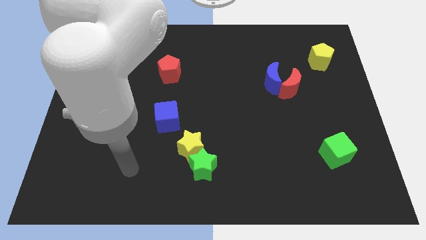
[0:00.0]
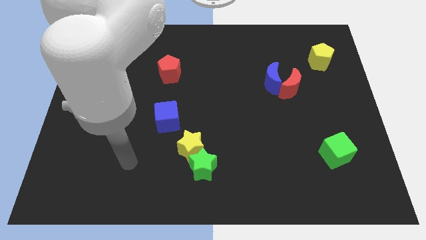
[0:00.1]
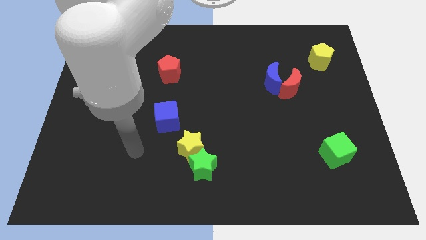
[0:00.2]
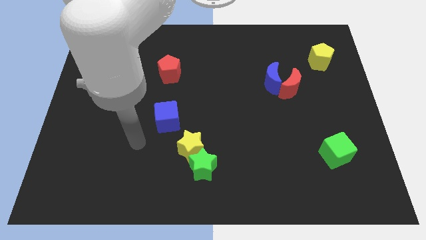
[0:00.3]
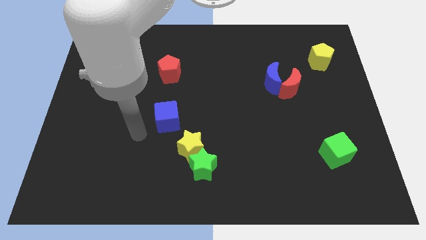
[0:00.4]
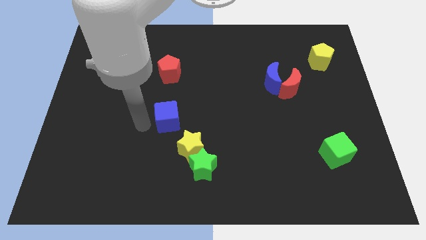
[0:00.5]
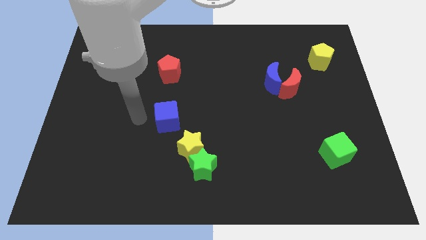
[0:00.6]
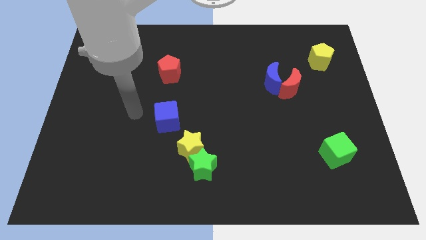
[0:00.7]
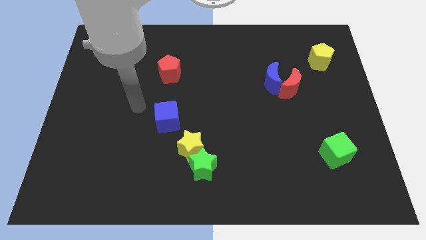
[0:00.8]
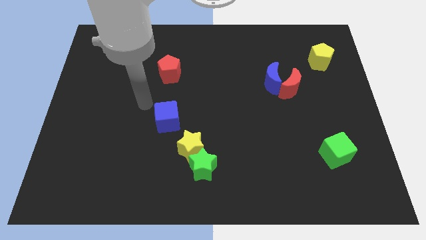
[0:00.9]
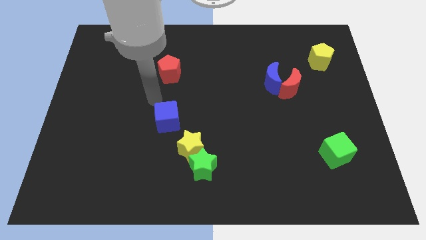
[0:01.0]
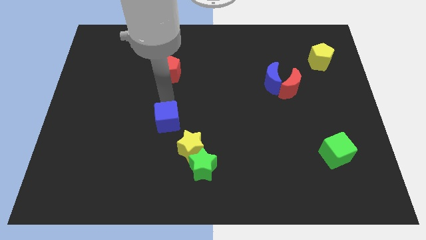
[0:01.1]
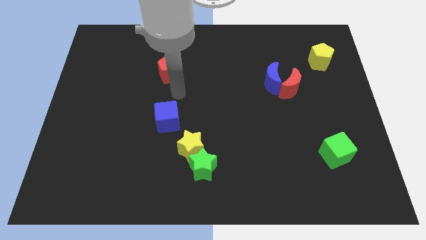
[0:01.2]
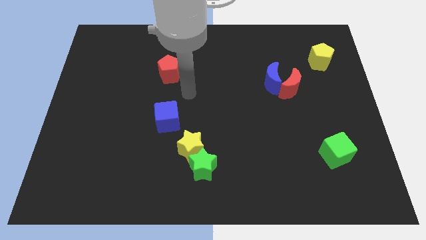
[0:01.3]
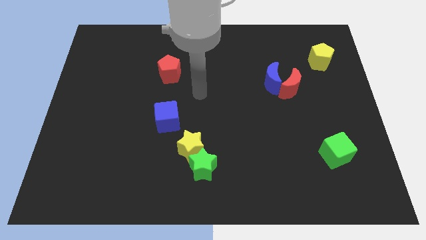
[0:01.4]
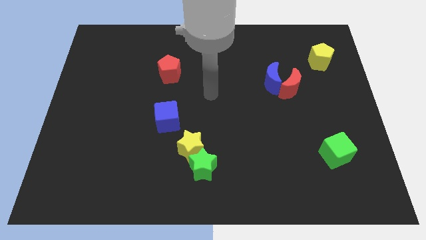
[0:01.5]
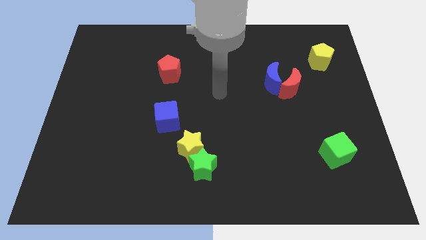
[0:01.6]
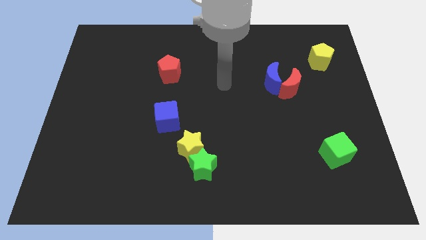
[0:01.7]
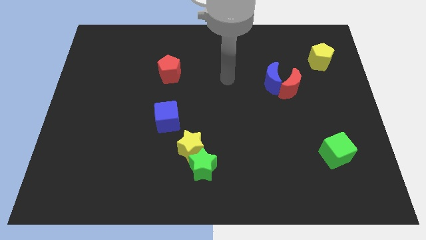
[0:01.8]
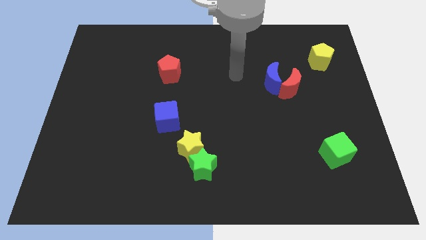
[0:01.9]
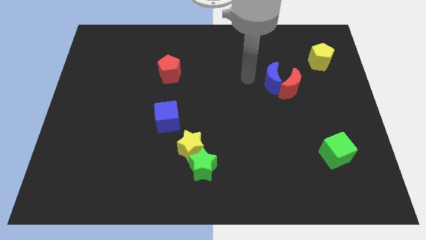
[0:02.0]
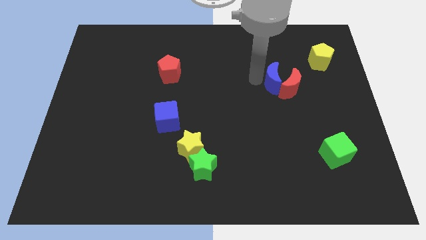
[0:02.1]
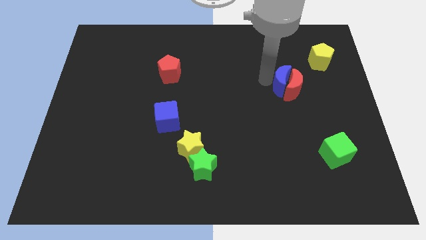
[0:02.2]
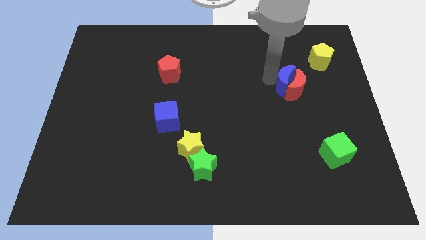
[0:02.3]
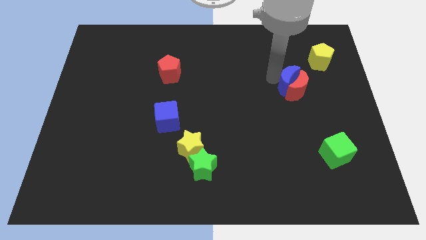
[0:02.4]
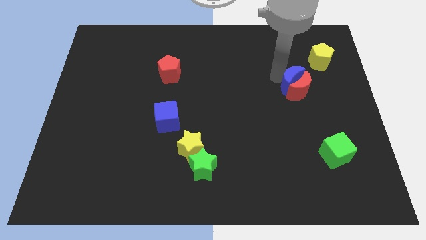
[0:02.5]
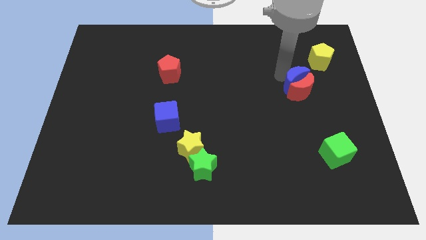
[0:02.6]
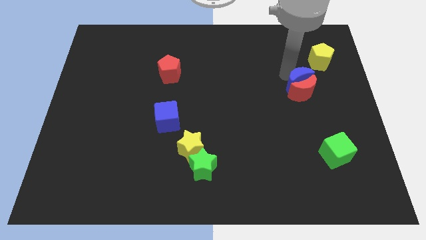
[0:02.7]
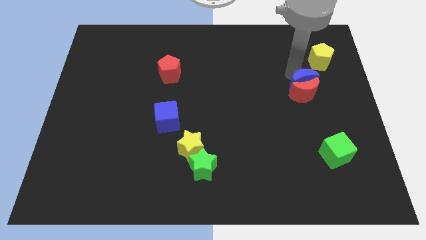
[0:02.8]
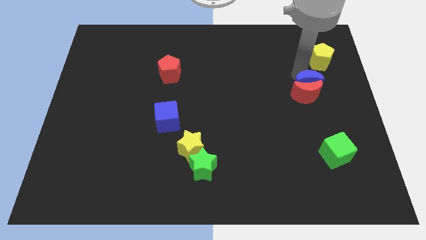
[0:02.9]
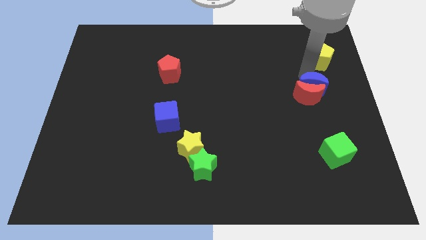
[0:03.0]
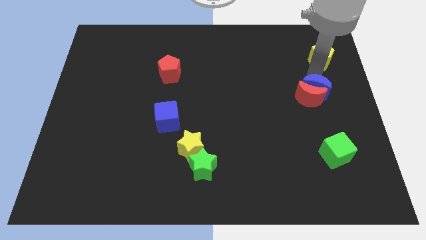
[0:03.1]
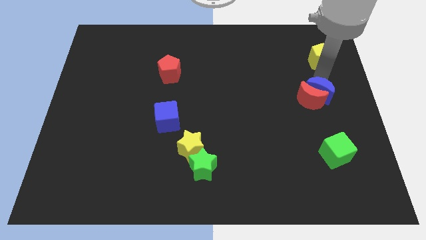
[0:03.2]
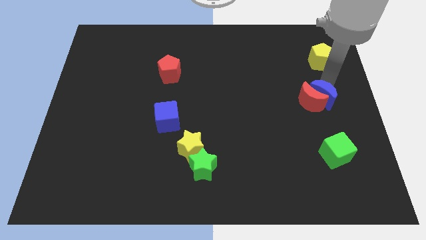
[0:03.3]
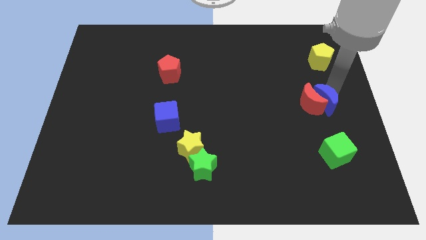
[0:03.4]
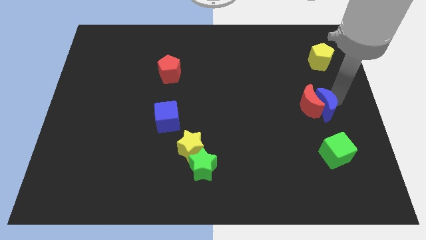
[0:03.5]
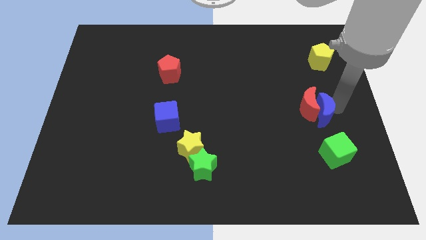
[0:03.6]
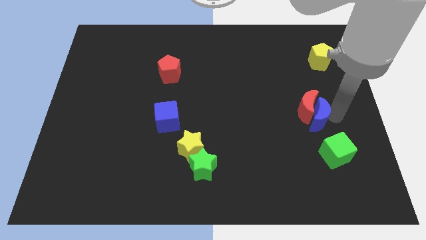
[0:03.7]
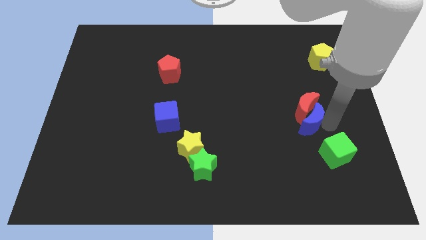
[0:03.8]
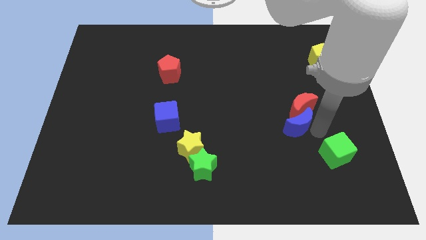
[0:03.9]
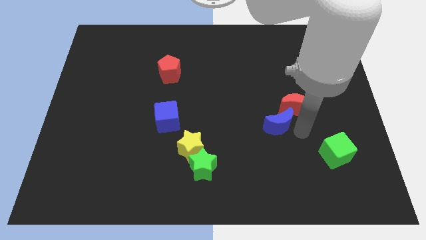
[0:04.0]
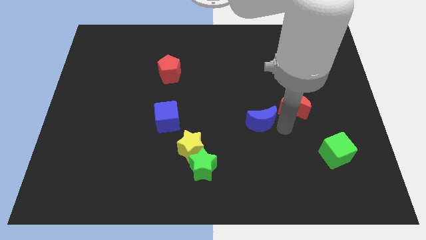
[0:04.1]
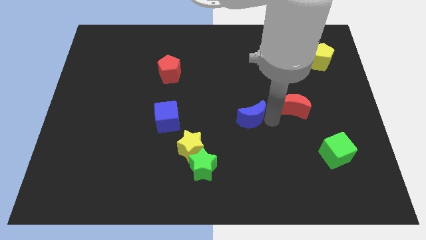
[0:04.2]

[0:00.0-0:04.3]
separate the red moon from the blue moon

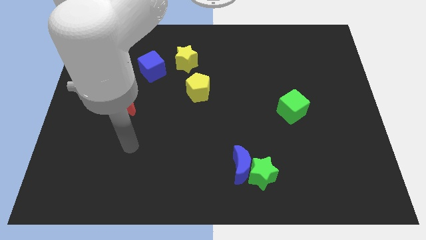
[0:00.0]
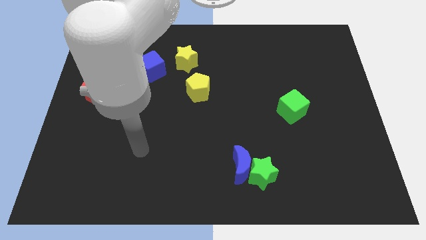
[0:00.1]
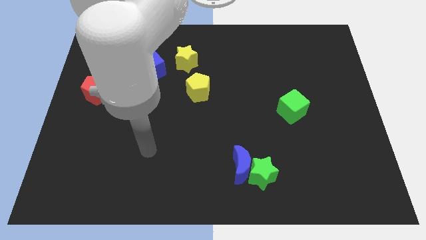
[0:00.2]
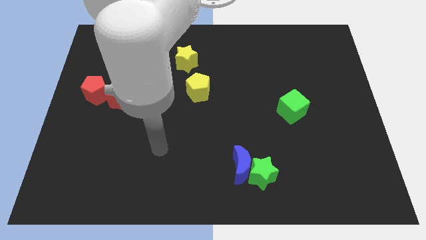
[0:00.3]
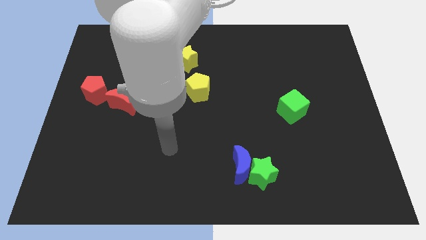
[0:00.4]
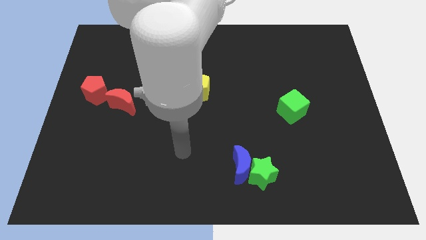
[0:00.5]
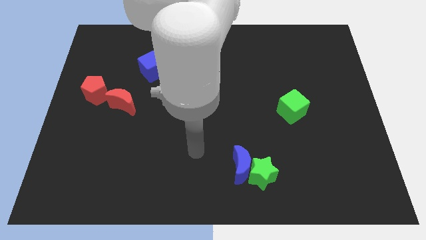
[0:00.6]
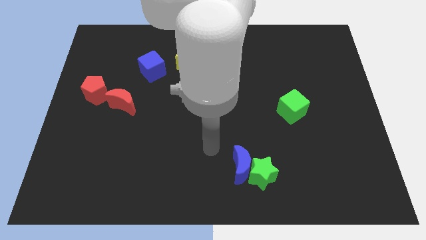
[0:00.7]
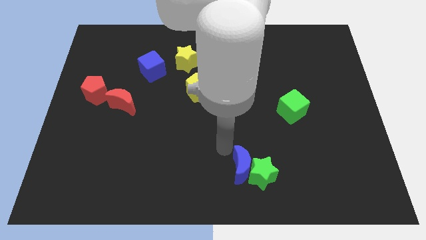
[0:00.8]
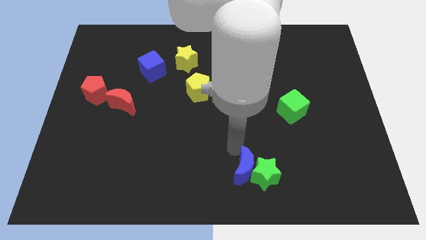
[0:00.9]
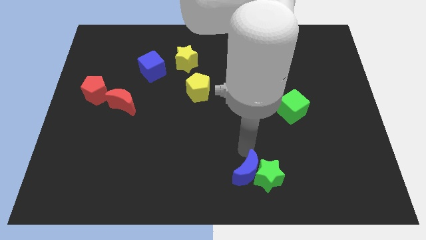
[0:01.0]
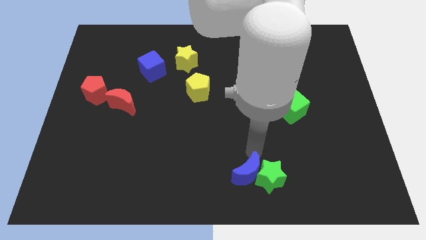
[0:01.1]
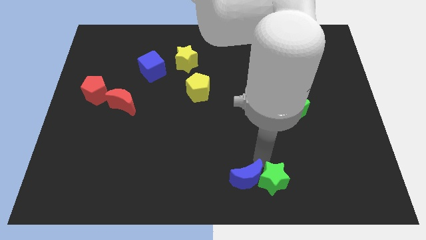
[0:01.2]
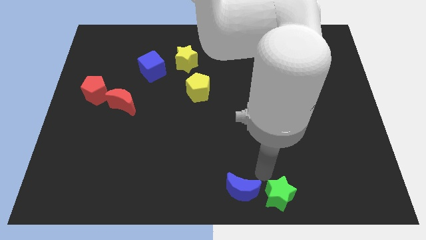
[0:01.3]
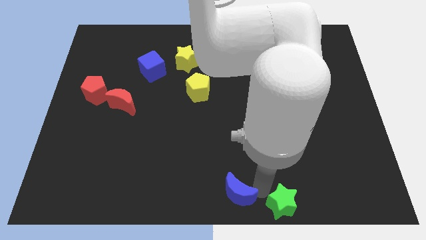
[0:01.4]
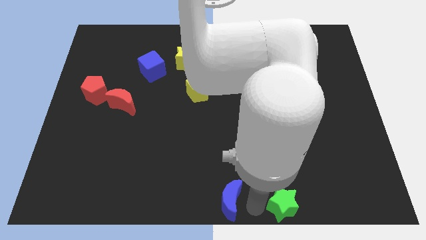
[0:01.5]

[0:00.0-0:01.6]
pull the blue moon apart from the green star

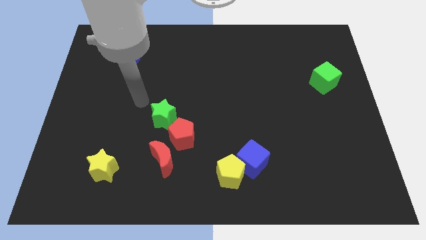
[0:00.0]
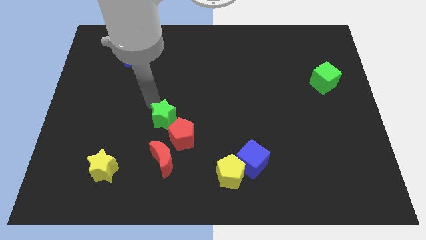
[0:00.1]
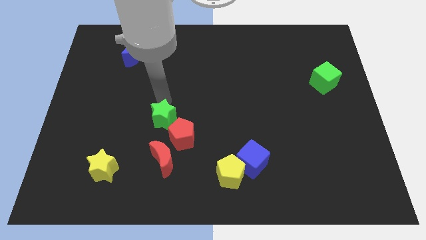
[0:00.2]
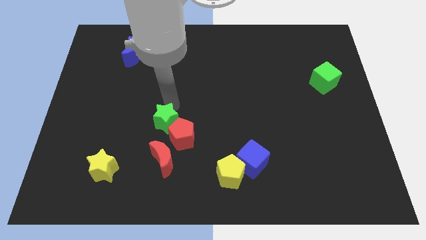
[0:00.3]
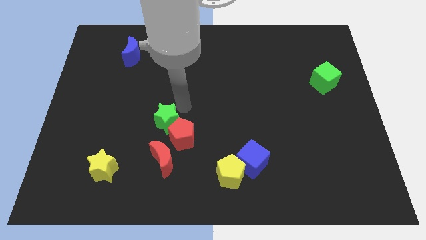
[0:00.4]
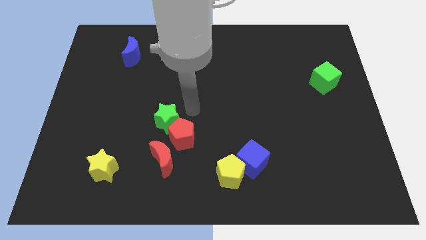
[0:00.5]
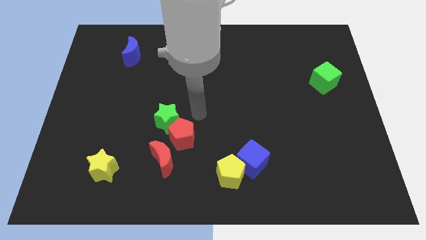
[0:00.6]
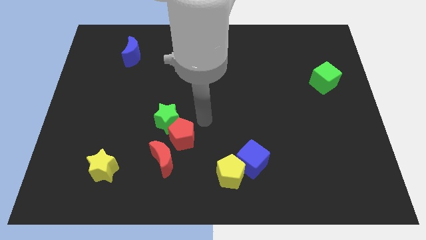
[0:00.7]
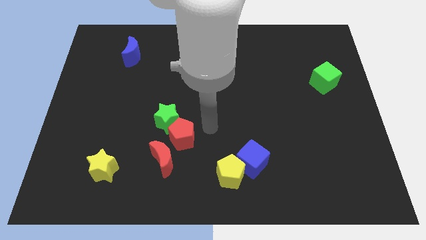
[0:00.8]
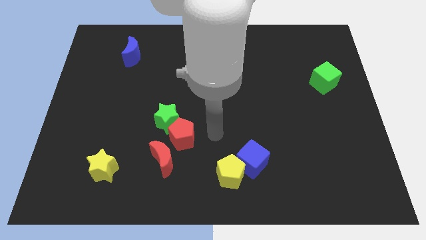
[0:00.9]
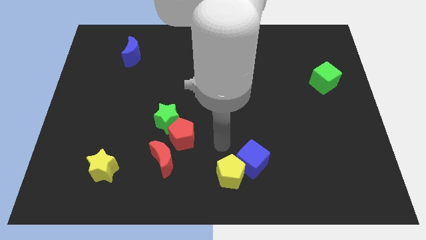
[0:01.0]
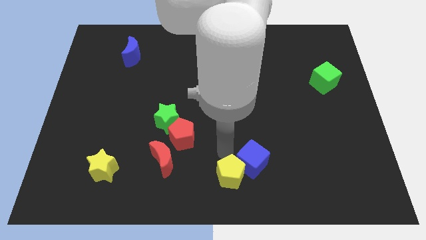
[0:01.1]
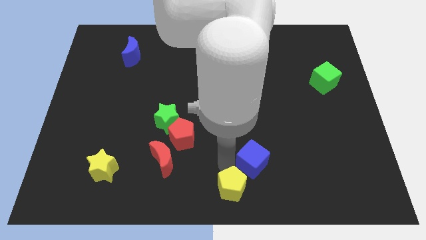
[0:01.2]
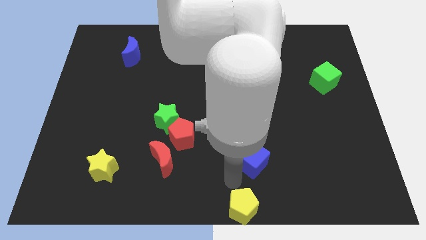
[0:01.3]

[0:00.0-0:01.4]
move the blue cube away from the yellow pentagon

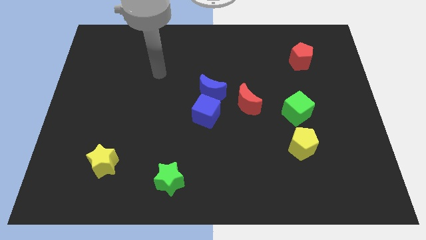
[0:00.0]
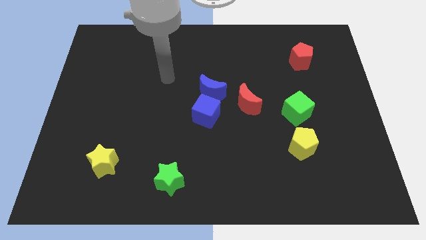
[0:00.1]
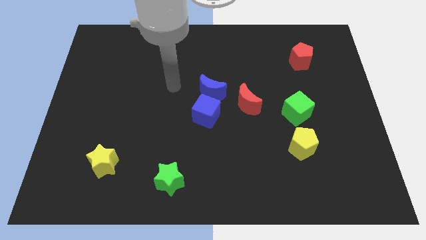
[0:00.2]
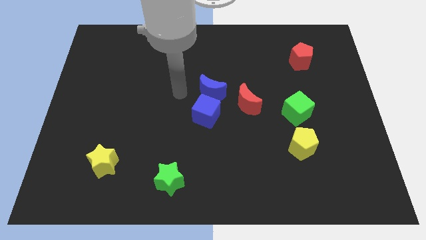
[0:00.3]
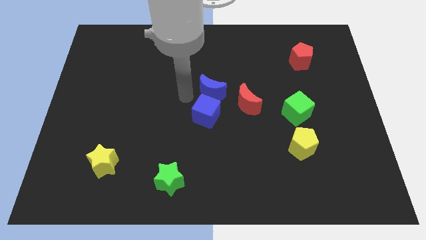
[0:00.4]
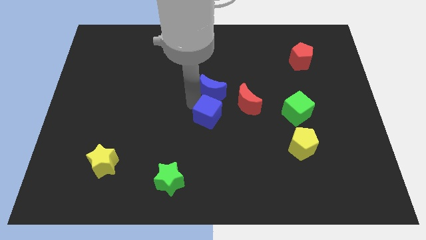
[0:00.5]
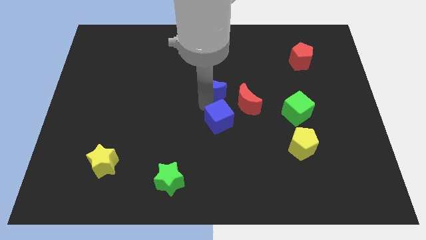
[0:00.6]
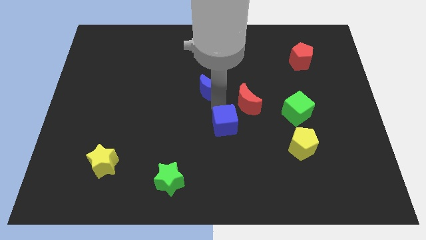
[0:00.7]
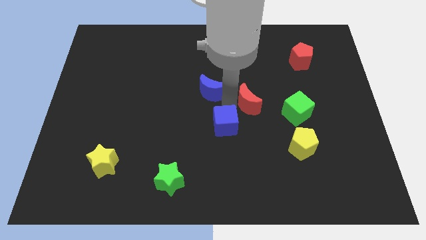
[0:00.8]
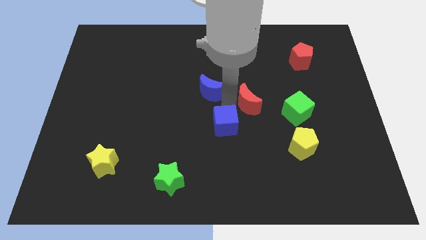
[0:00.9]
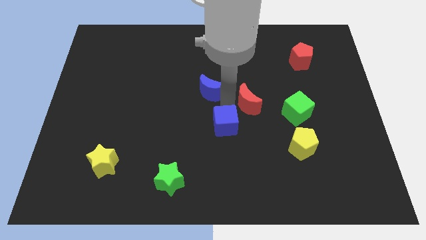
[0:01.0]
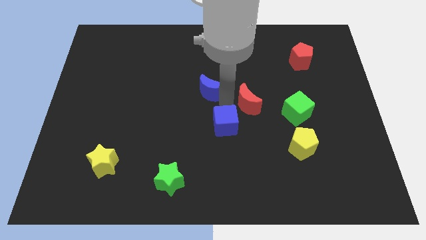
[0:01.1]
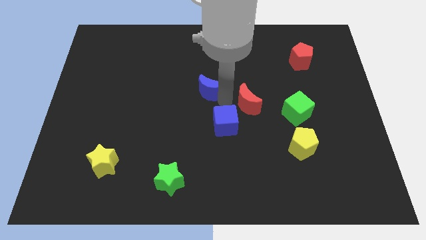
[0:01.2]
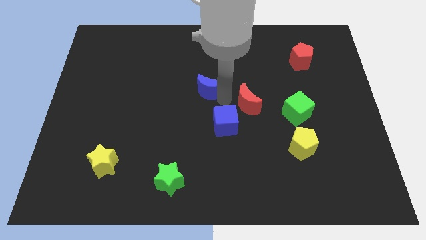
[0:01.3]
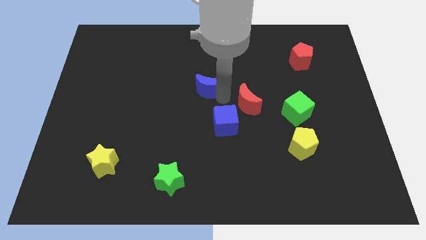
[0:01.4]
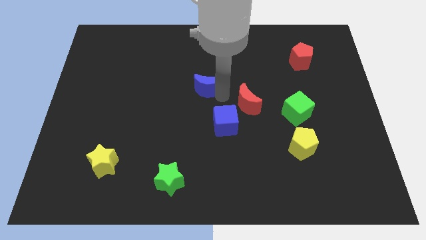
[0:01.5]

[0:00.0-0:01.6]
separate the blue moon from the blue cube and red moon

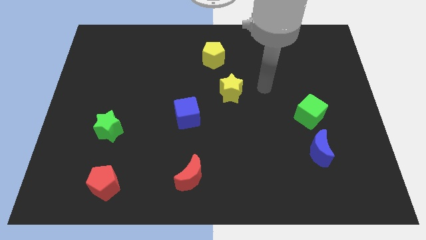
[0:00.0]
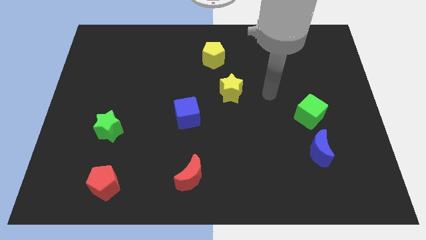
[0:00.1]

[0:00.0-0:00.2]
pull the blue moon apart from the green cube

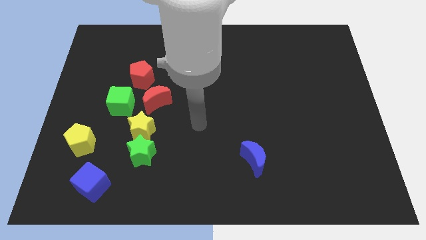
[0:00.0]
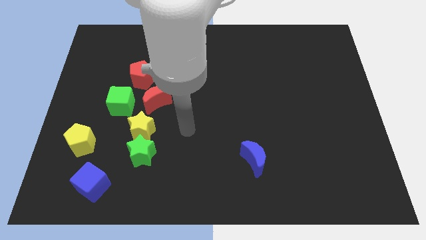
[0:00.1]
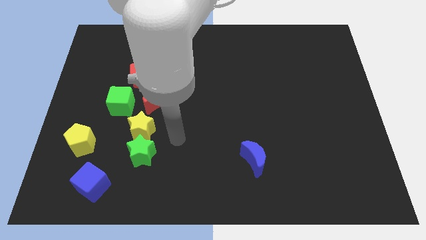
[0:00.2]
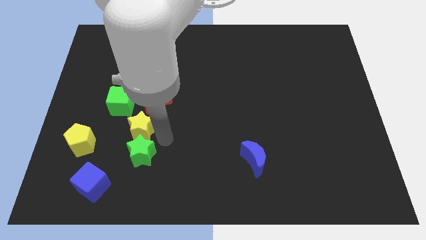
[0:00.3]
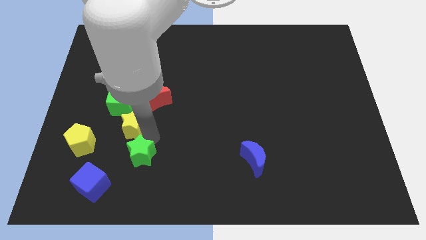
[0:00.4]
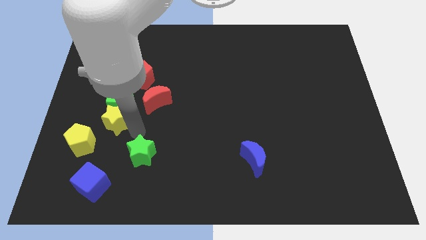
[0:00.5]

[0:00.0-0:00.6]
pull the green star apart from the yellow star
